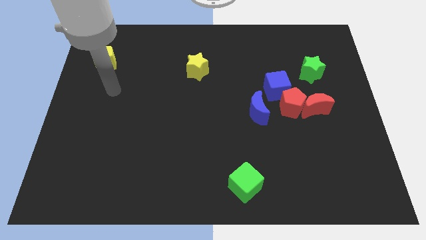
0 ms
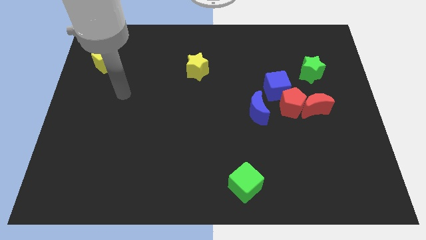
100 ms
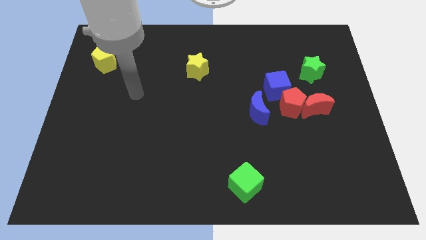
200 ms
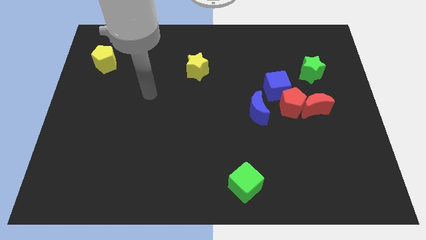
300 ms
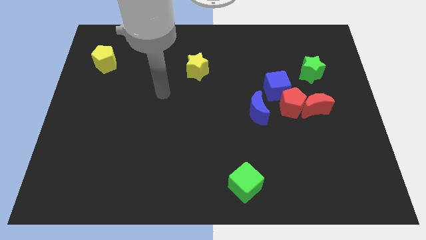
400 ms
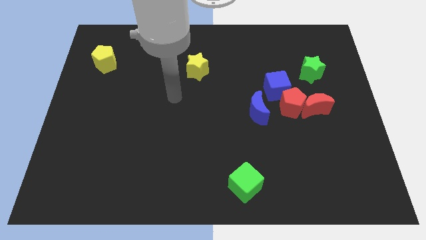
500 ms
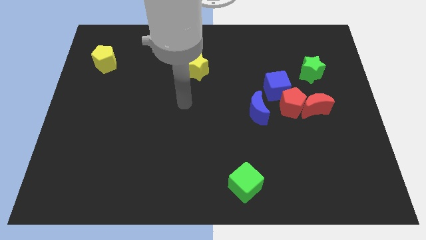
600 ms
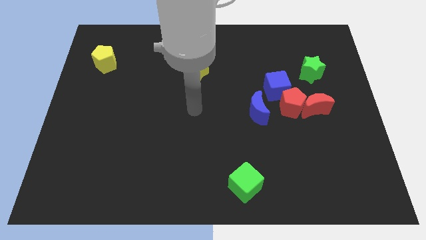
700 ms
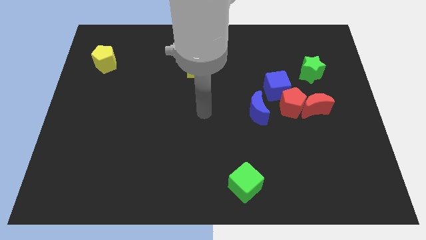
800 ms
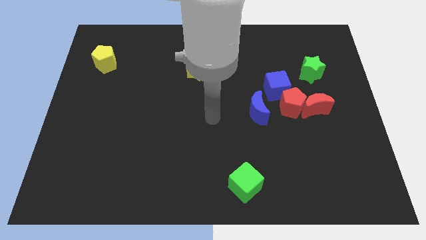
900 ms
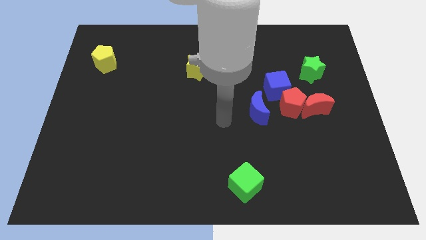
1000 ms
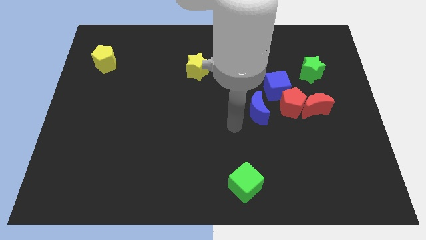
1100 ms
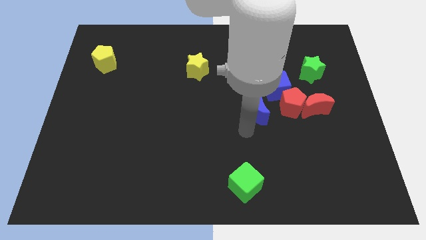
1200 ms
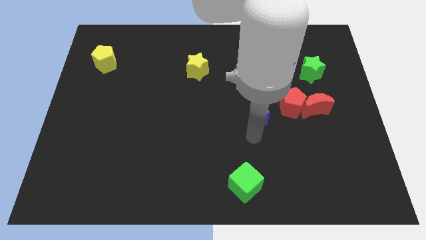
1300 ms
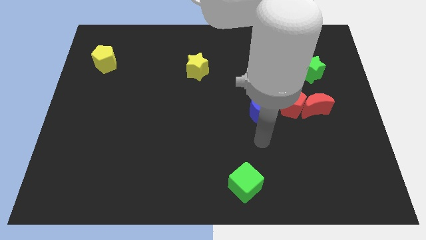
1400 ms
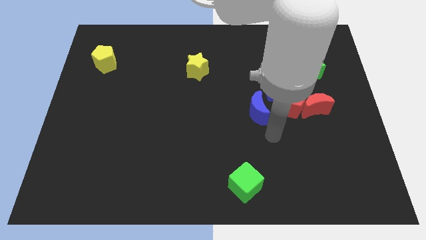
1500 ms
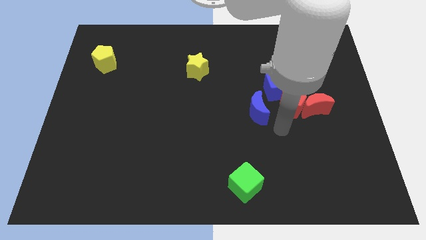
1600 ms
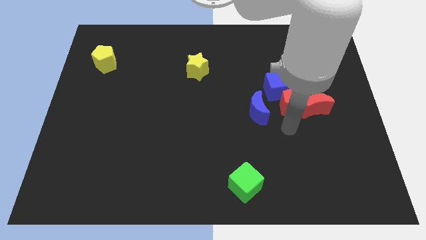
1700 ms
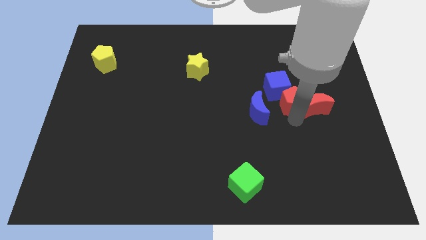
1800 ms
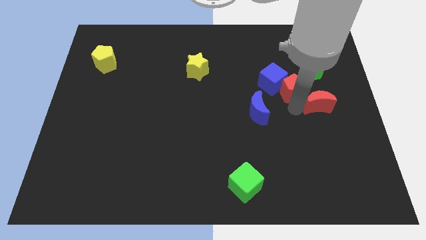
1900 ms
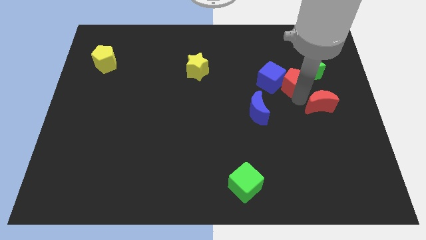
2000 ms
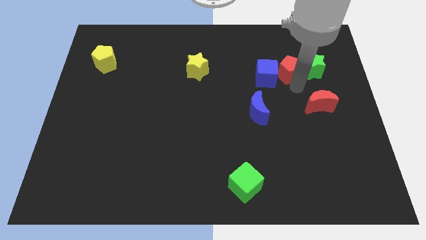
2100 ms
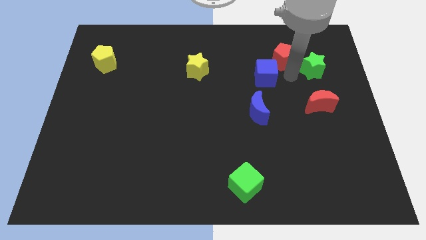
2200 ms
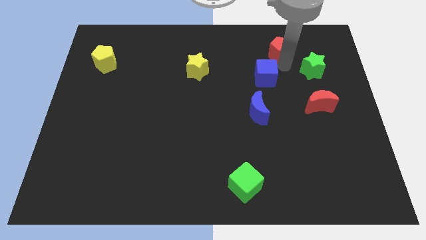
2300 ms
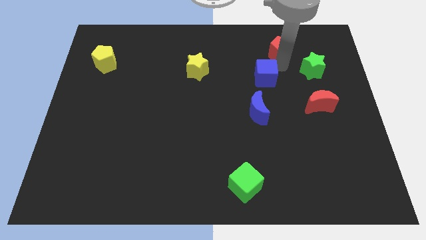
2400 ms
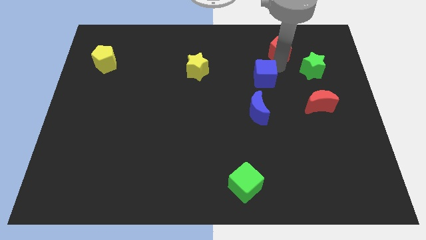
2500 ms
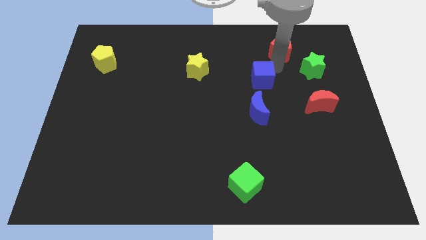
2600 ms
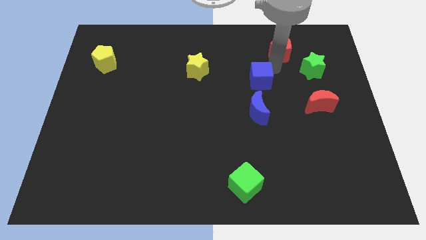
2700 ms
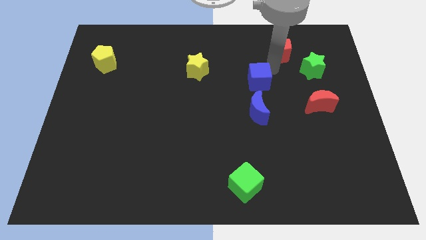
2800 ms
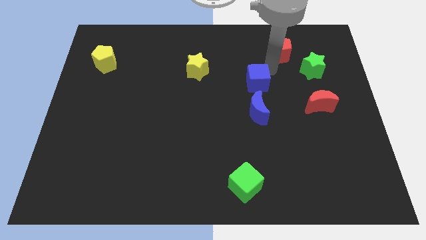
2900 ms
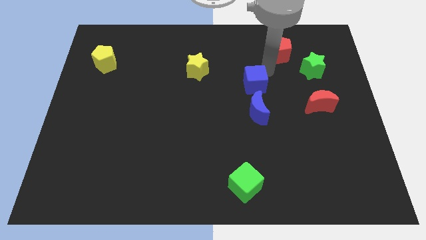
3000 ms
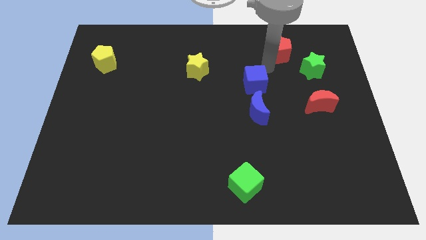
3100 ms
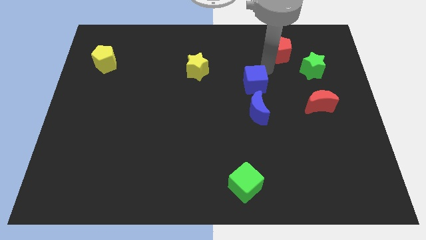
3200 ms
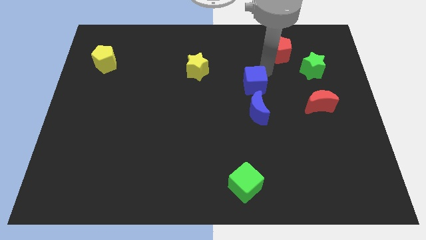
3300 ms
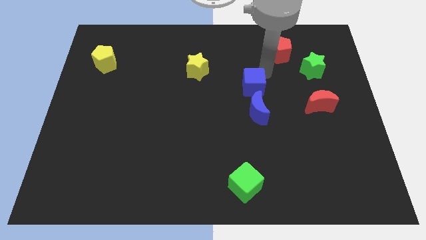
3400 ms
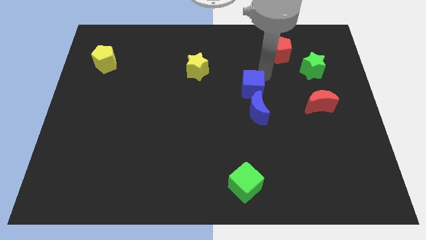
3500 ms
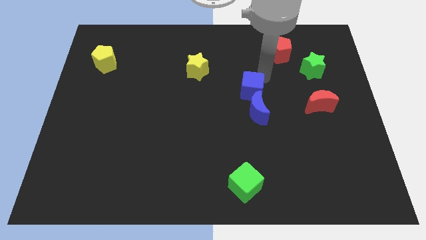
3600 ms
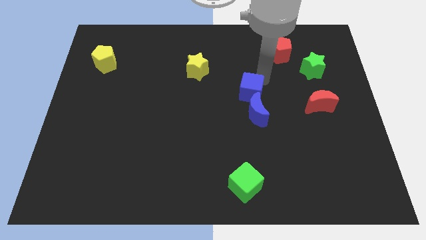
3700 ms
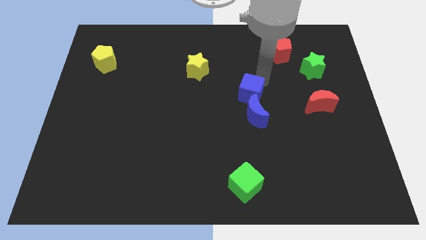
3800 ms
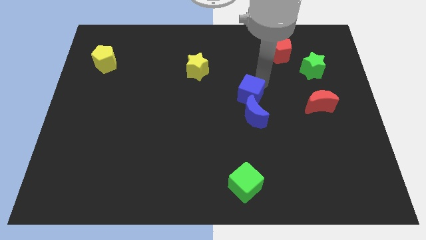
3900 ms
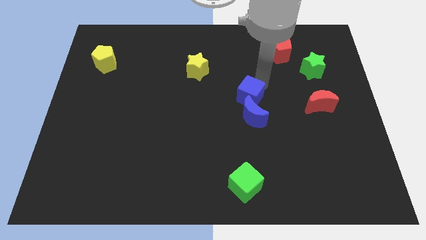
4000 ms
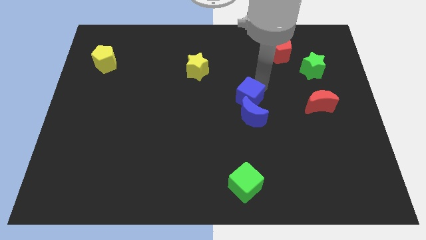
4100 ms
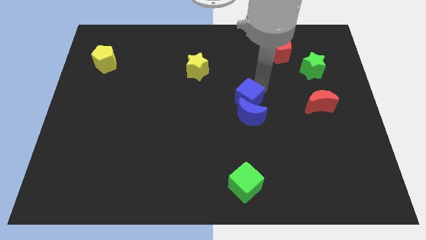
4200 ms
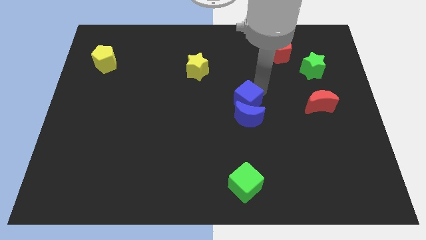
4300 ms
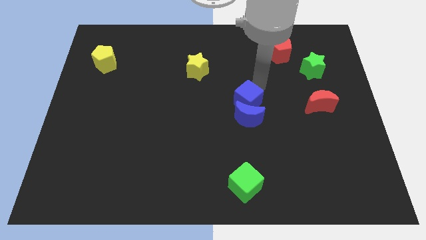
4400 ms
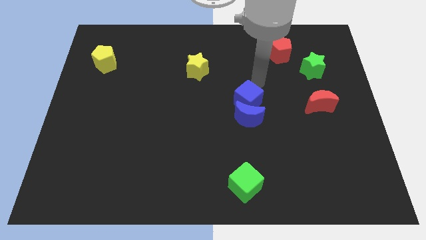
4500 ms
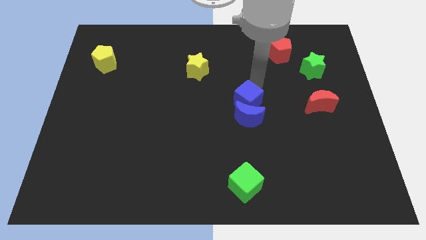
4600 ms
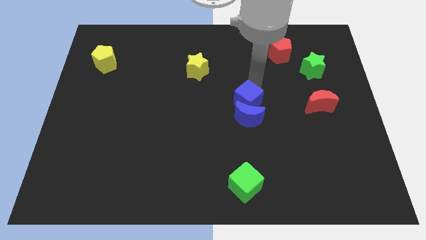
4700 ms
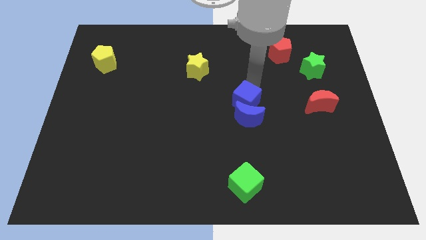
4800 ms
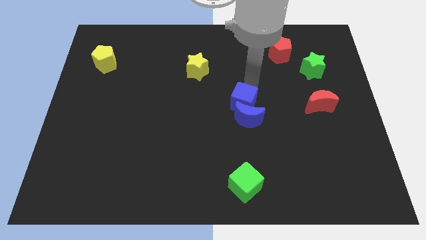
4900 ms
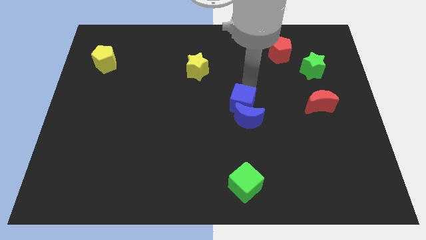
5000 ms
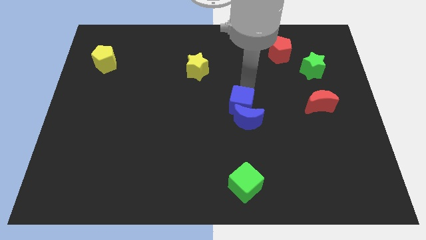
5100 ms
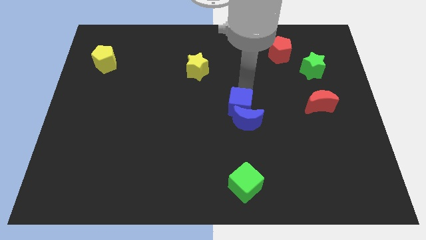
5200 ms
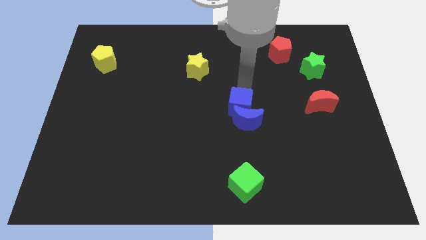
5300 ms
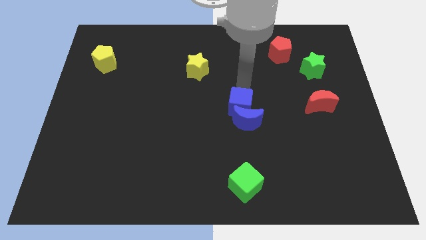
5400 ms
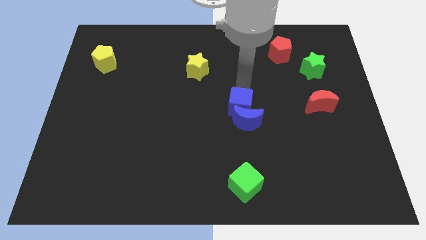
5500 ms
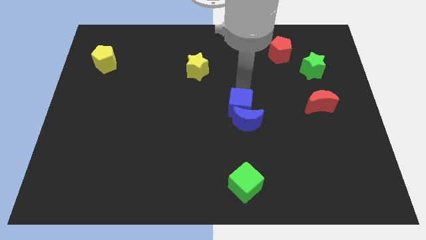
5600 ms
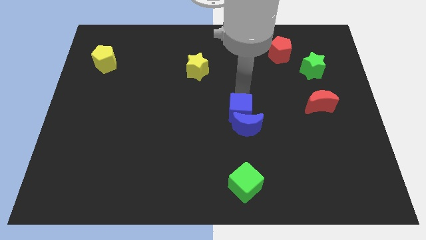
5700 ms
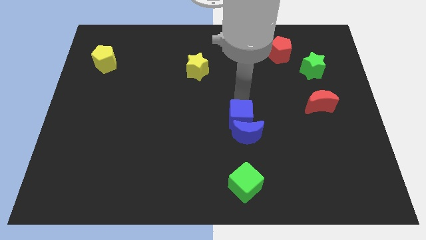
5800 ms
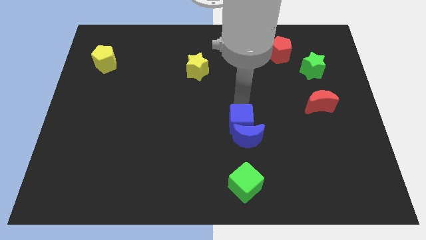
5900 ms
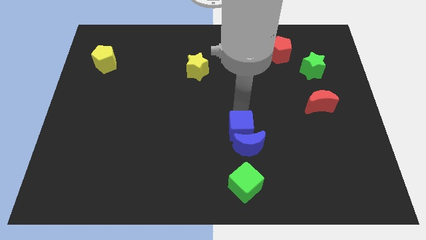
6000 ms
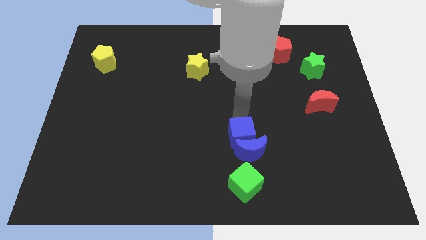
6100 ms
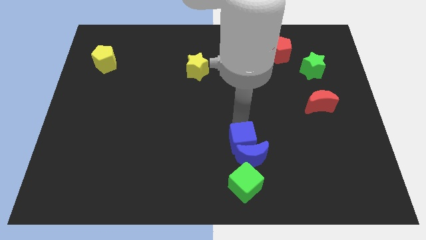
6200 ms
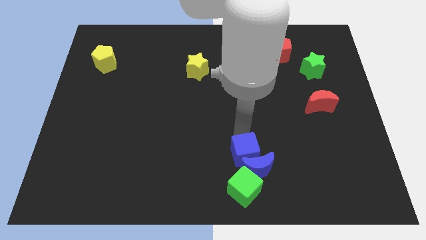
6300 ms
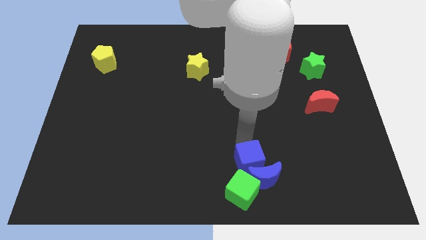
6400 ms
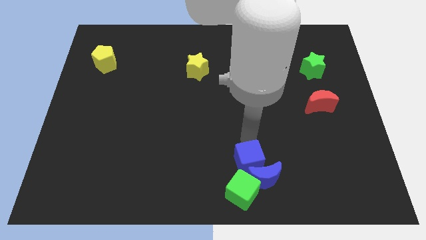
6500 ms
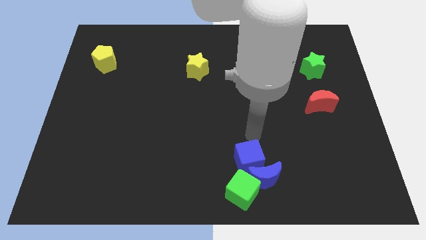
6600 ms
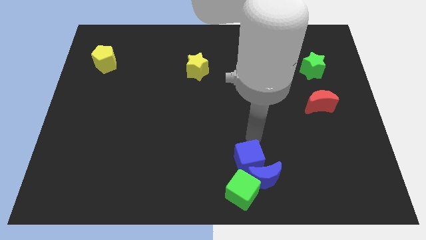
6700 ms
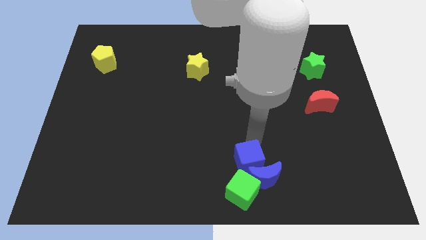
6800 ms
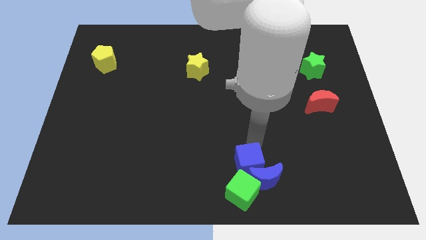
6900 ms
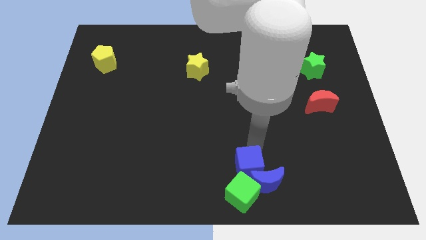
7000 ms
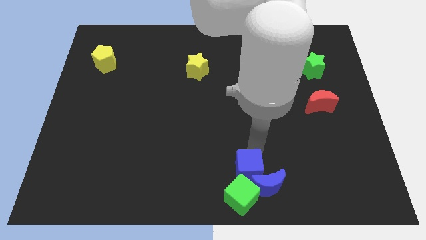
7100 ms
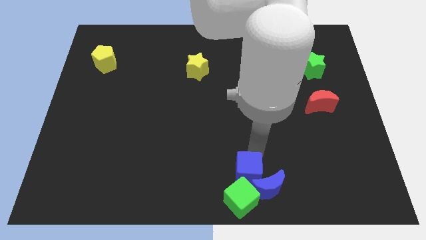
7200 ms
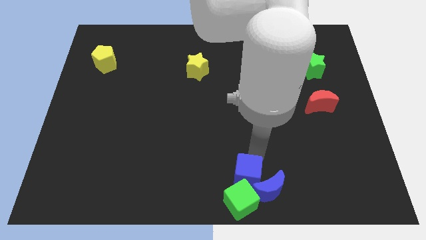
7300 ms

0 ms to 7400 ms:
slide the blue cube towards the green cube
